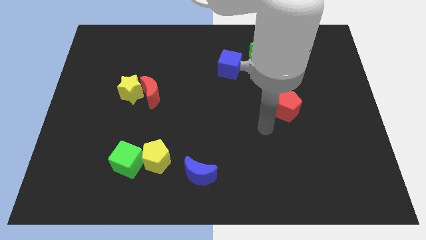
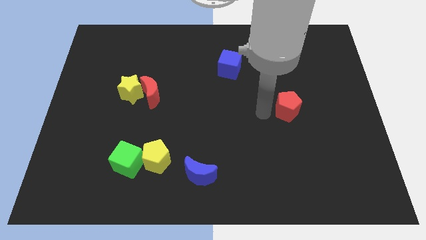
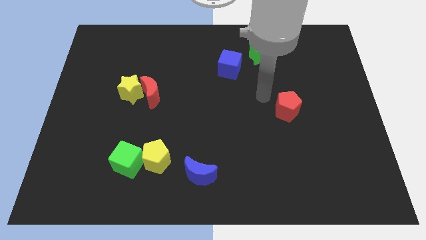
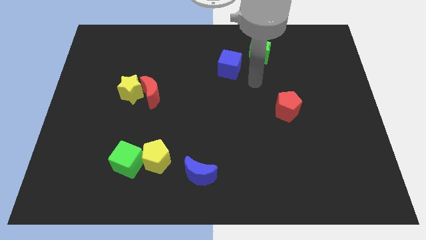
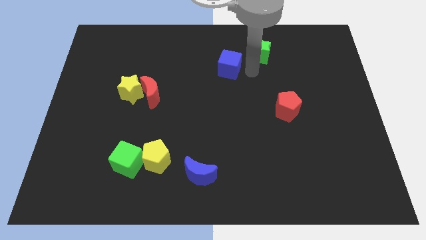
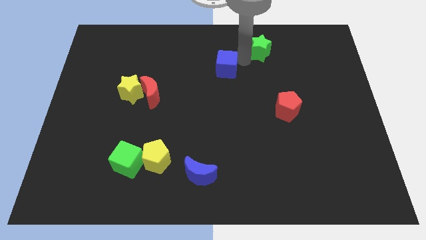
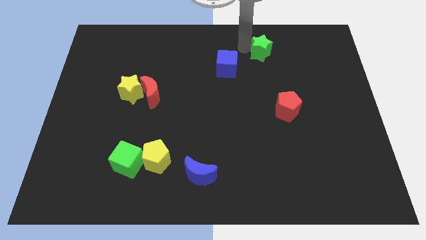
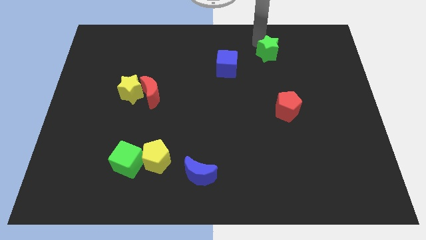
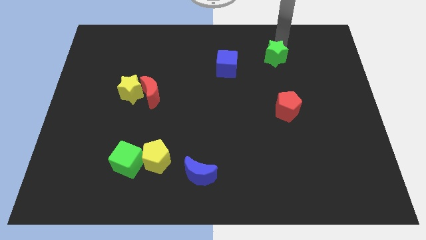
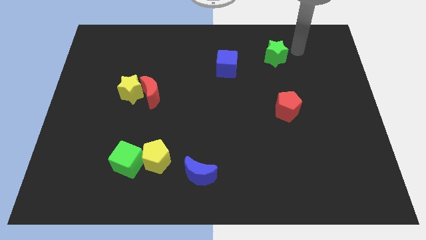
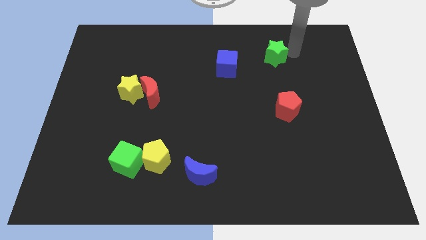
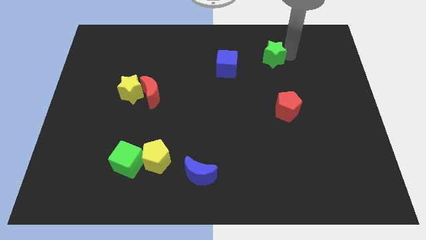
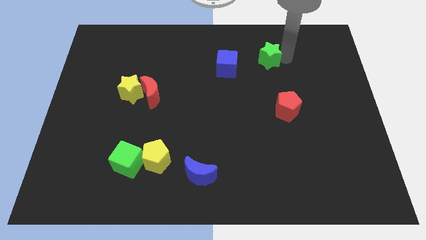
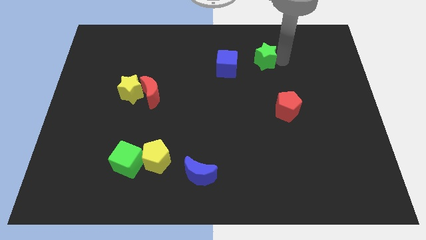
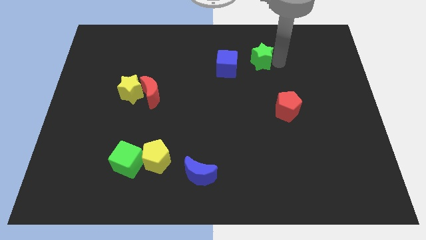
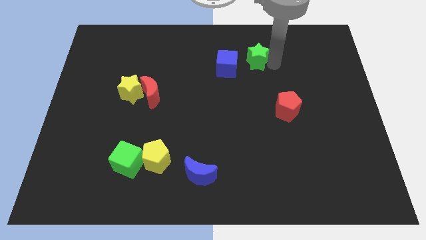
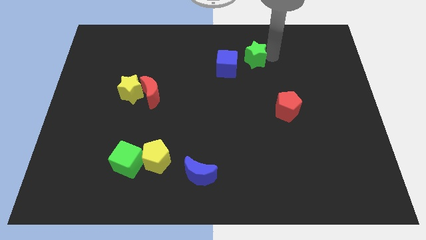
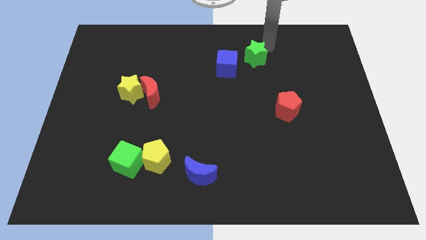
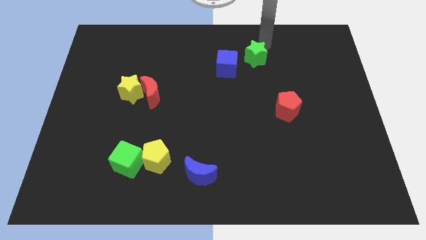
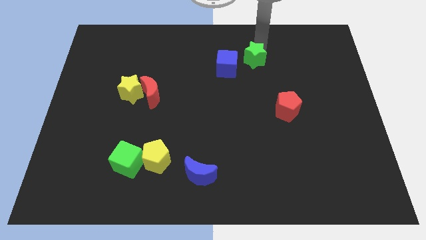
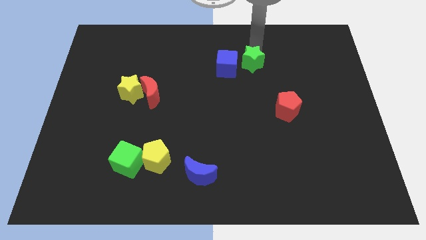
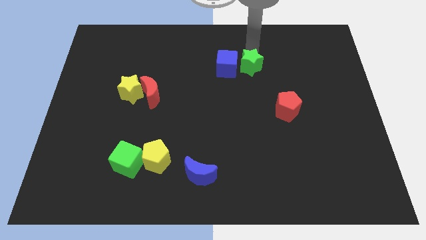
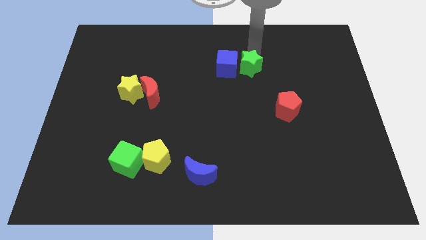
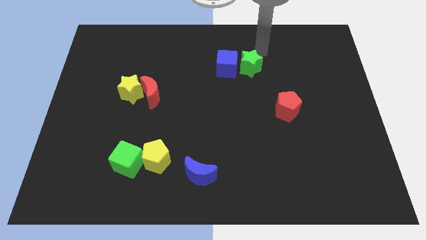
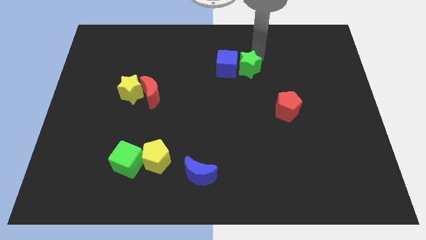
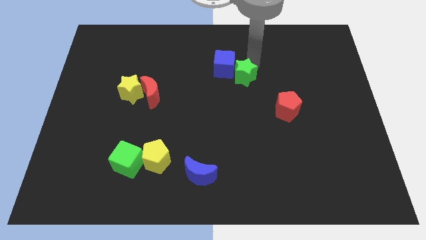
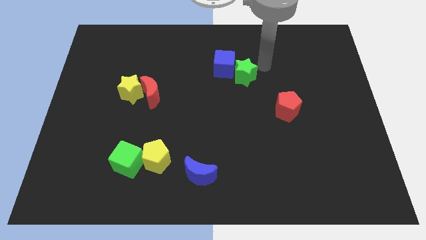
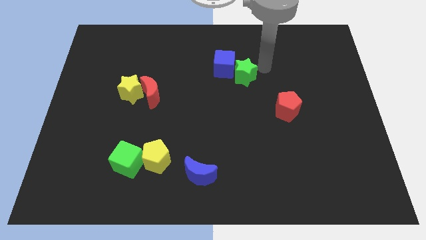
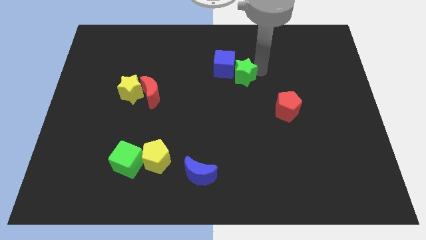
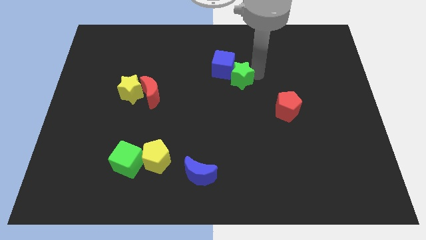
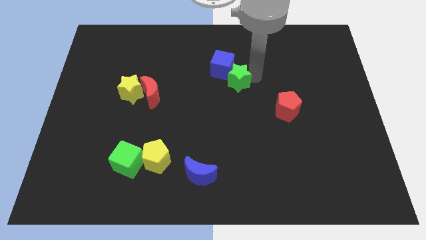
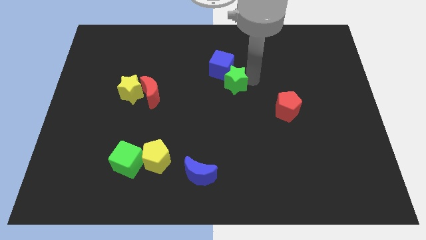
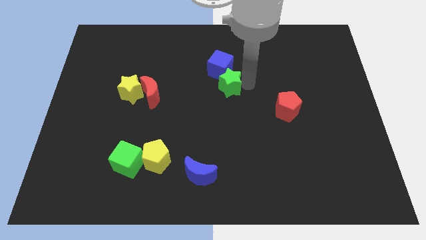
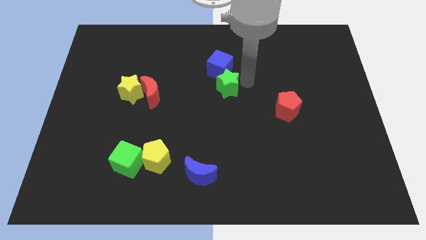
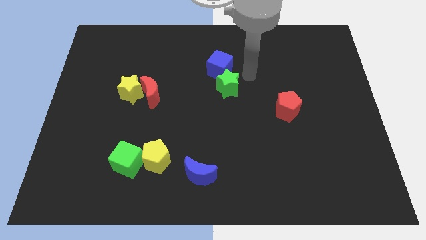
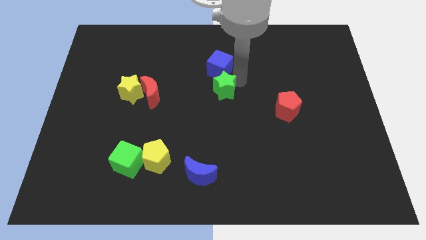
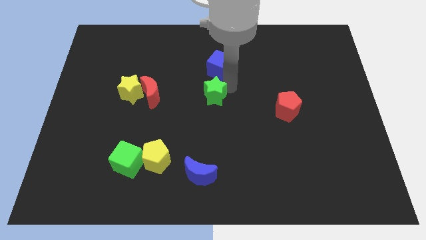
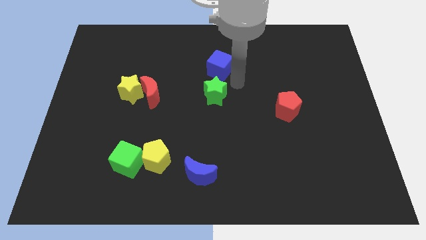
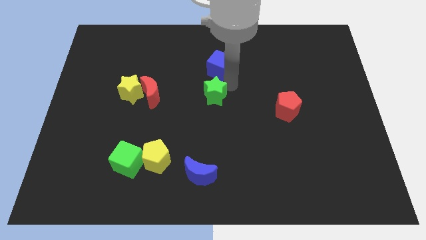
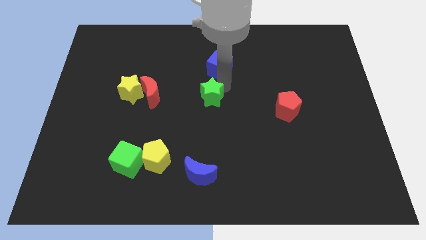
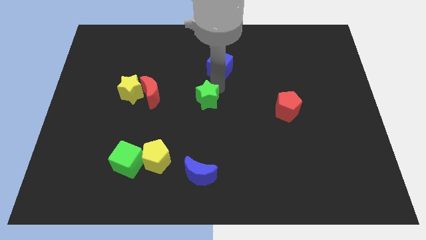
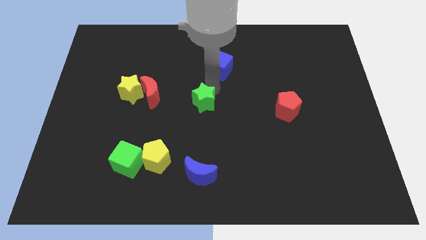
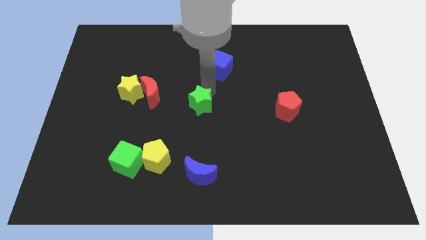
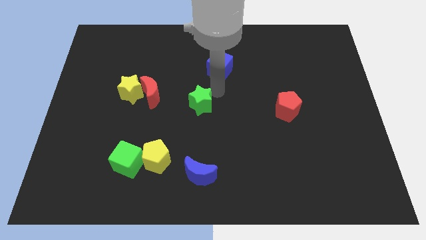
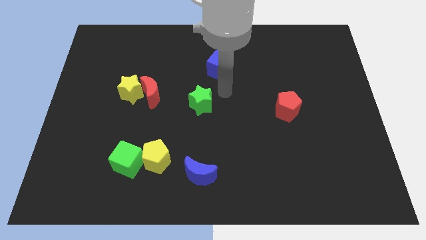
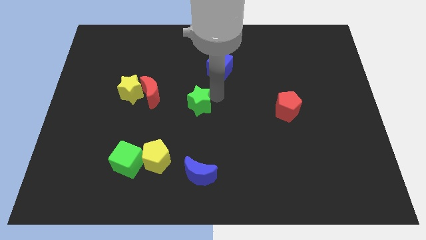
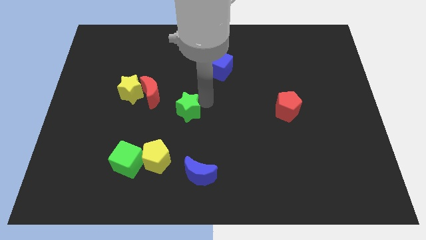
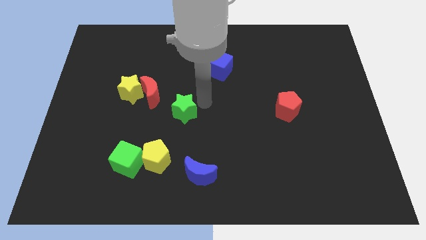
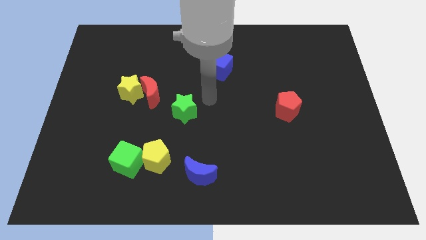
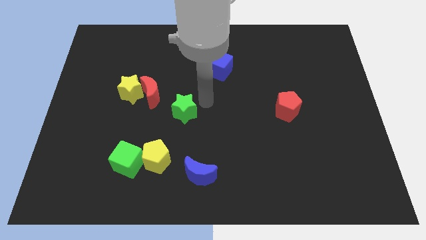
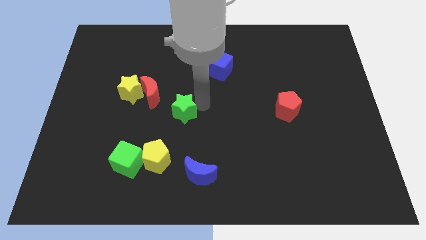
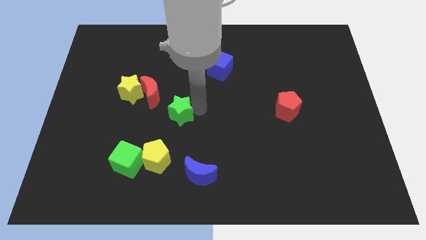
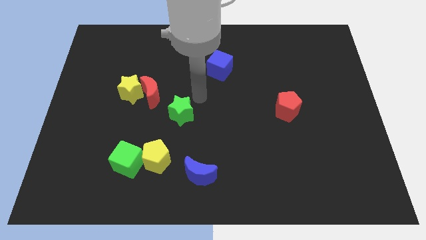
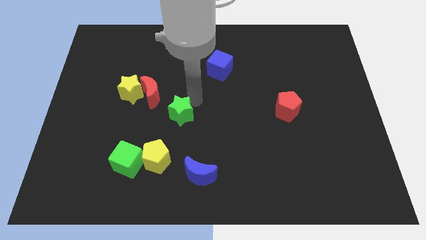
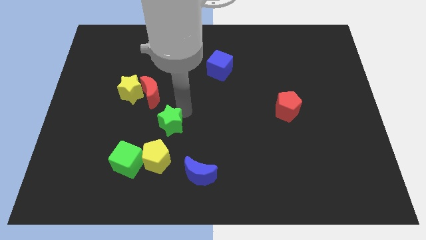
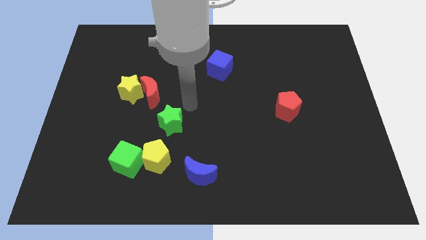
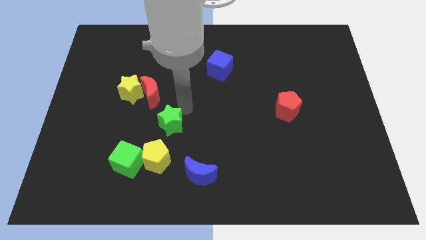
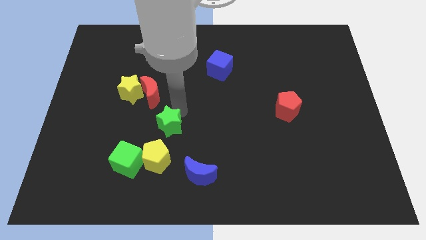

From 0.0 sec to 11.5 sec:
put the green star diagonally up and to the right of the green cube
